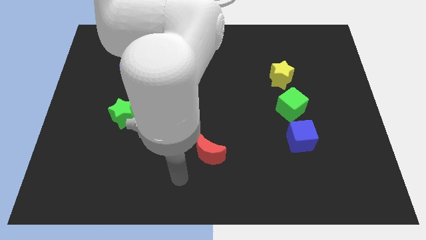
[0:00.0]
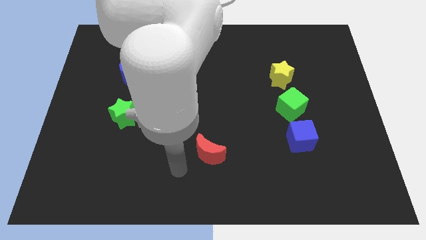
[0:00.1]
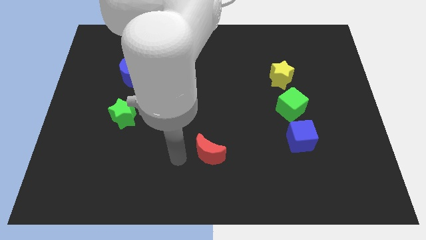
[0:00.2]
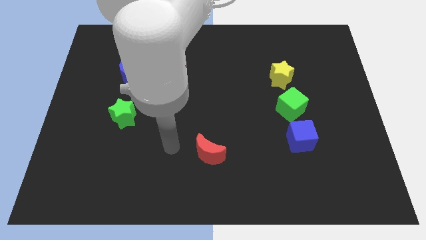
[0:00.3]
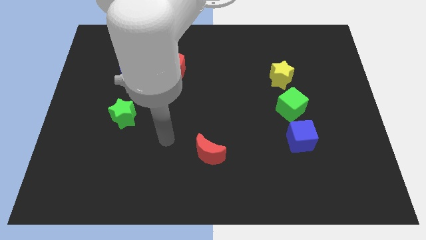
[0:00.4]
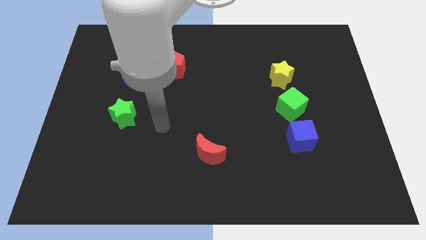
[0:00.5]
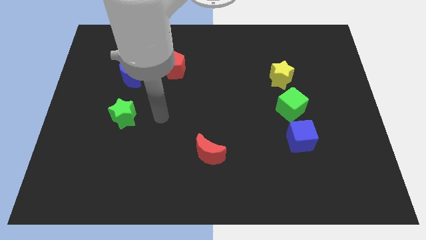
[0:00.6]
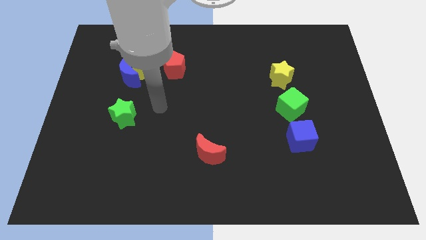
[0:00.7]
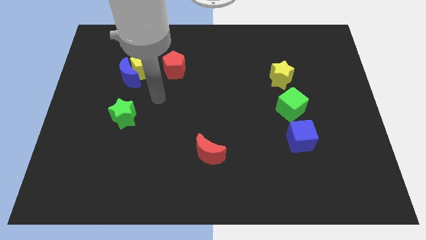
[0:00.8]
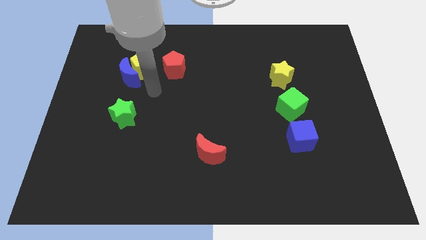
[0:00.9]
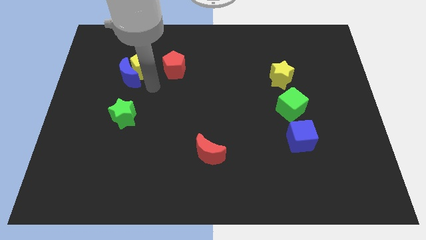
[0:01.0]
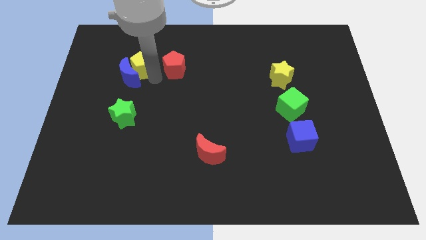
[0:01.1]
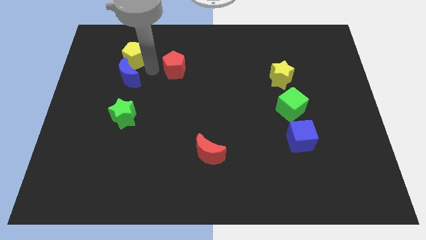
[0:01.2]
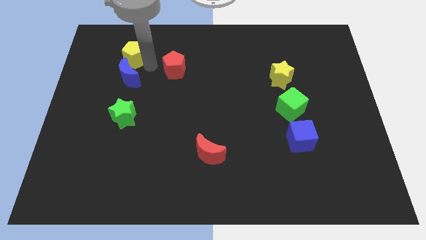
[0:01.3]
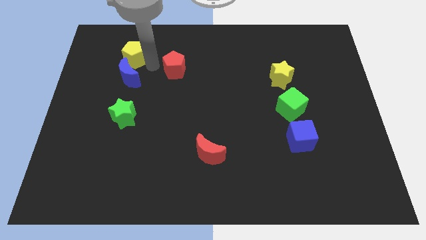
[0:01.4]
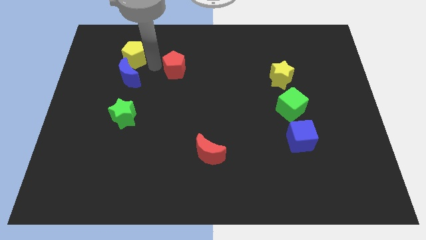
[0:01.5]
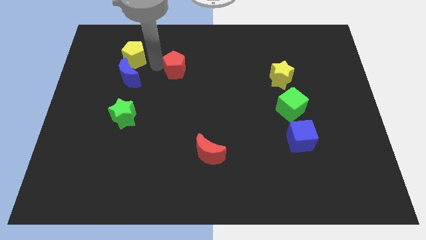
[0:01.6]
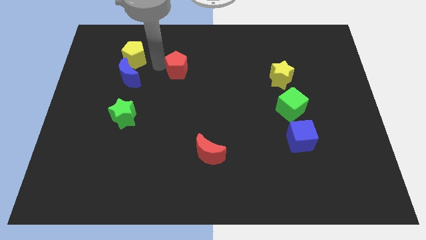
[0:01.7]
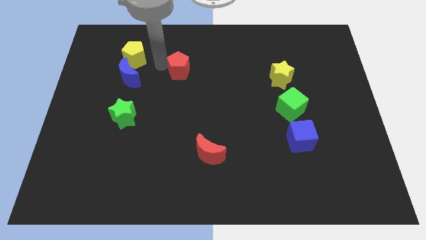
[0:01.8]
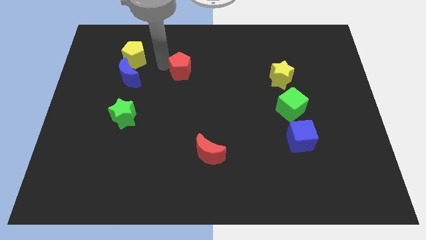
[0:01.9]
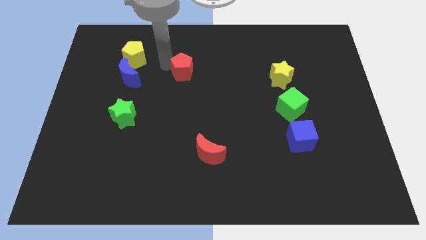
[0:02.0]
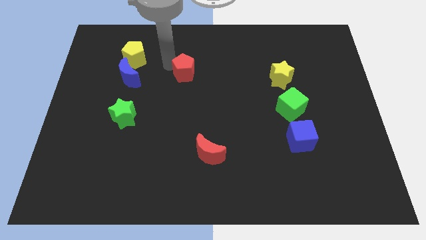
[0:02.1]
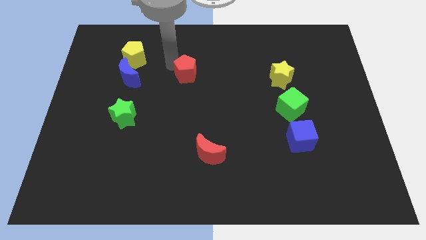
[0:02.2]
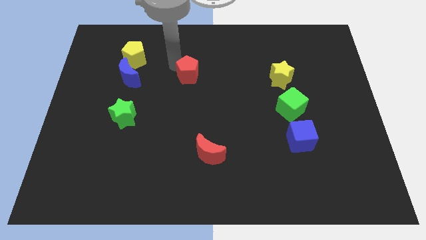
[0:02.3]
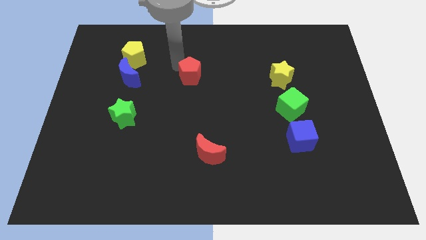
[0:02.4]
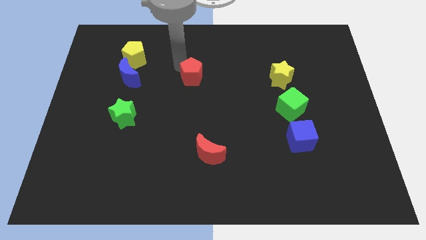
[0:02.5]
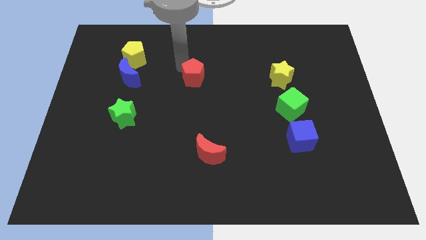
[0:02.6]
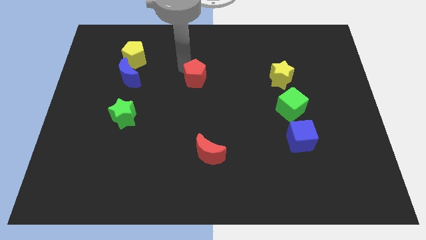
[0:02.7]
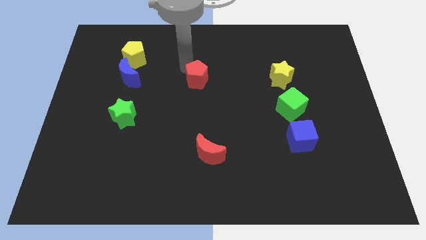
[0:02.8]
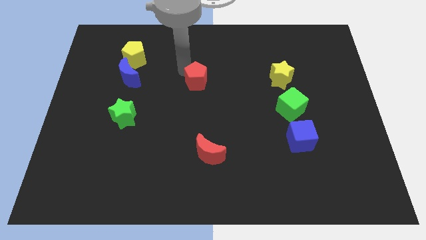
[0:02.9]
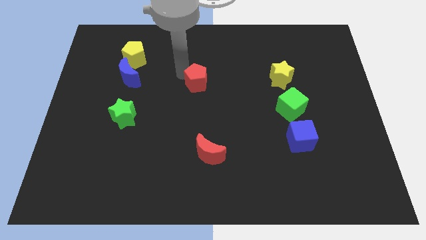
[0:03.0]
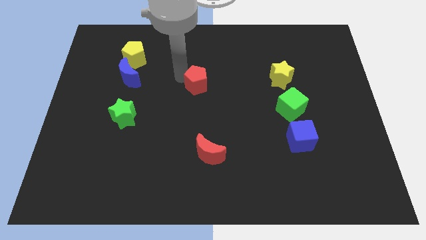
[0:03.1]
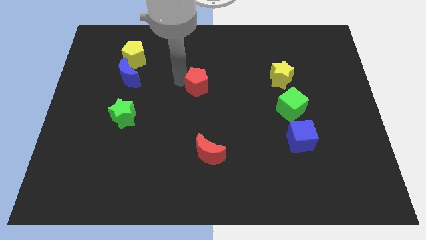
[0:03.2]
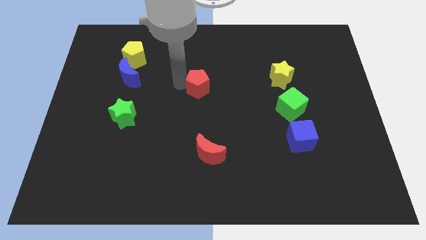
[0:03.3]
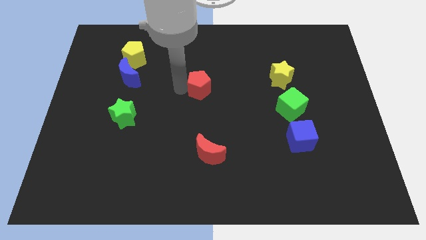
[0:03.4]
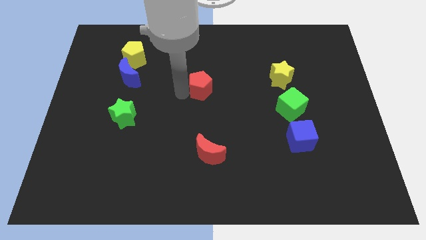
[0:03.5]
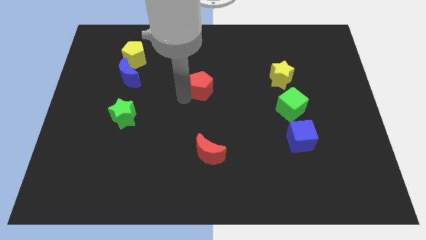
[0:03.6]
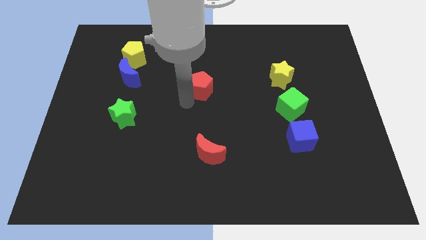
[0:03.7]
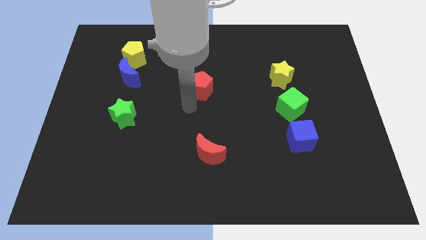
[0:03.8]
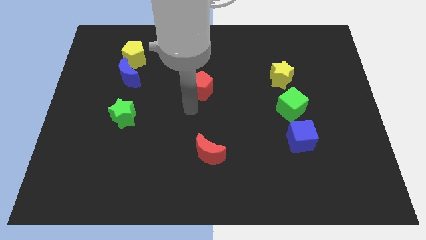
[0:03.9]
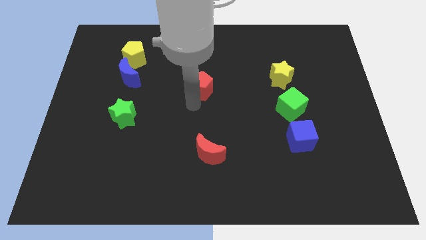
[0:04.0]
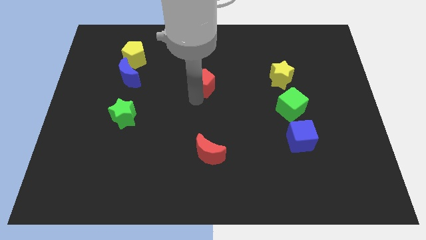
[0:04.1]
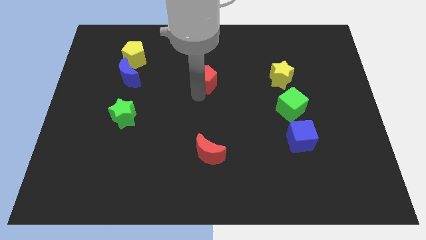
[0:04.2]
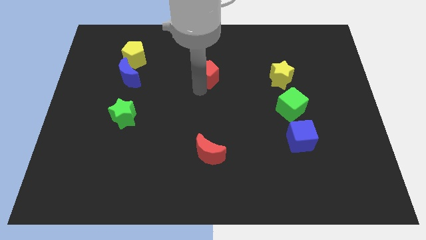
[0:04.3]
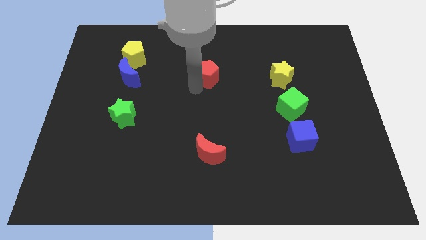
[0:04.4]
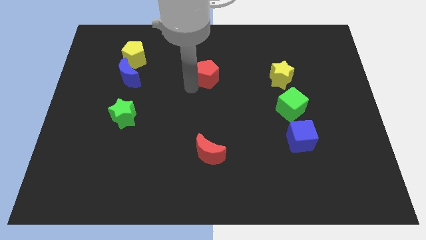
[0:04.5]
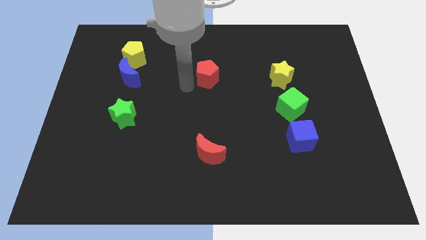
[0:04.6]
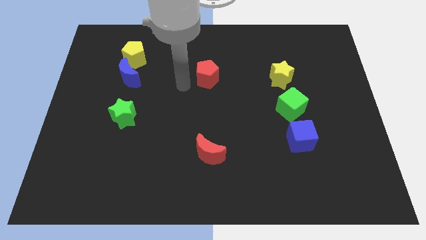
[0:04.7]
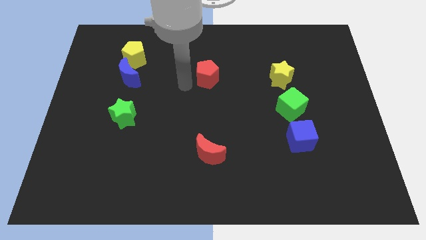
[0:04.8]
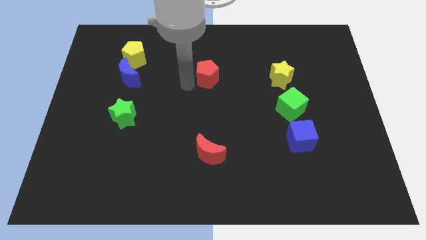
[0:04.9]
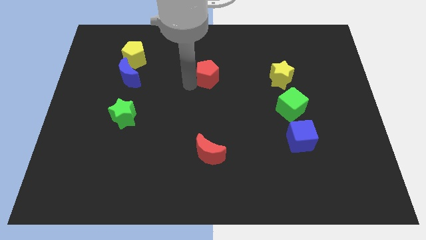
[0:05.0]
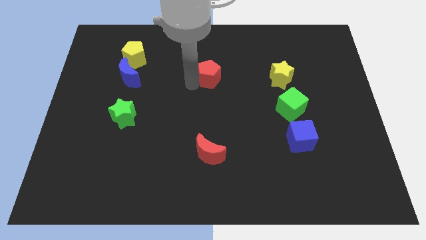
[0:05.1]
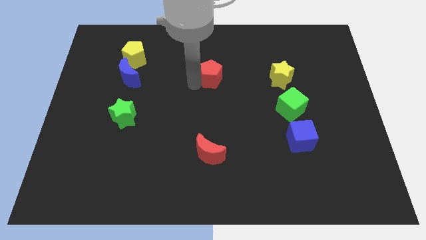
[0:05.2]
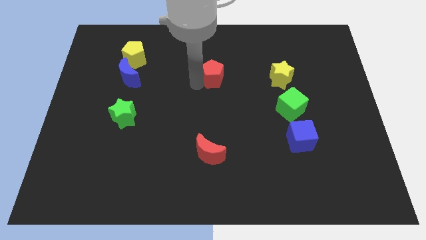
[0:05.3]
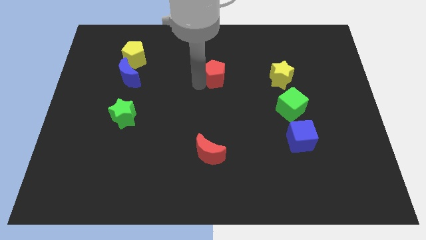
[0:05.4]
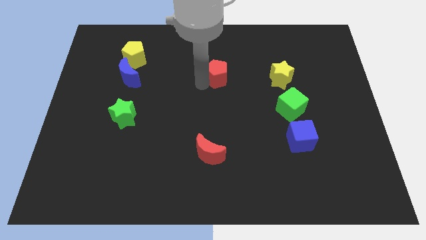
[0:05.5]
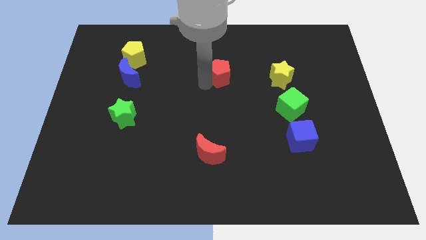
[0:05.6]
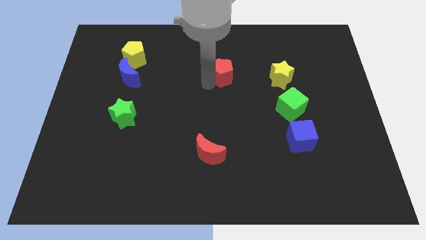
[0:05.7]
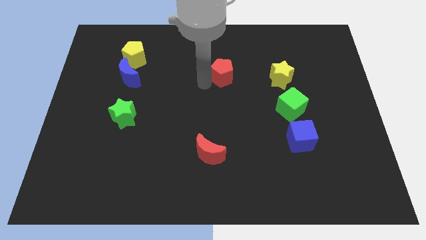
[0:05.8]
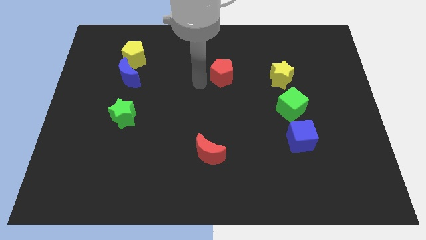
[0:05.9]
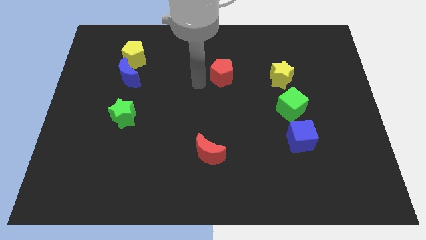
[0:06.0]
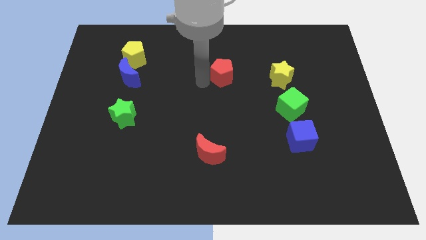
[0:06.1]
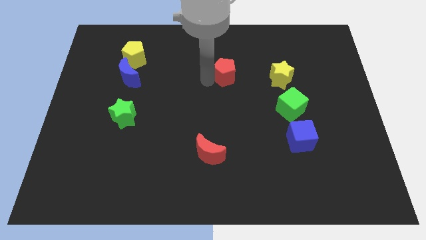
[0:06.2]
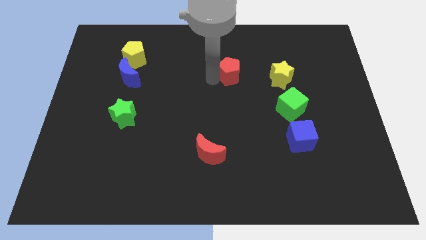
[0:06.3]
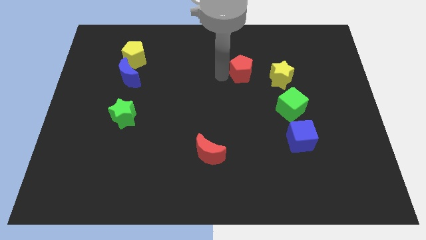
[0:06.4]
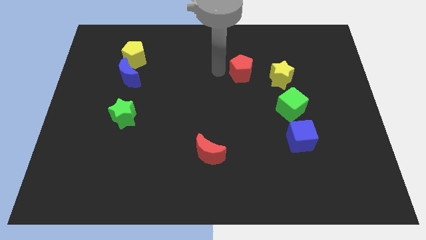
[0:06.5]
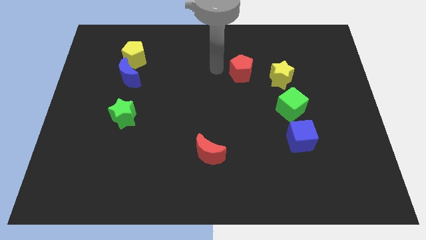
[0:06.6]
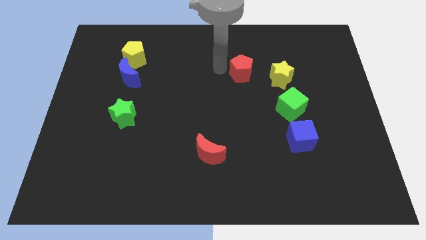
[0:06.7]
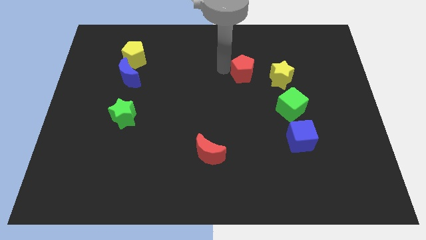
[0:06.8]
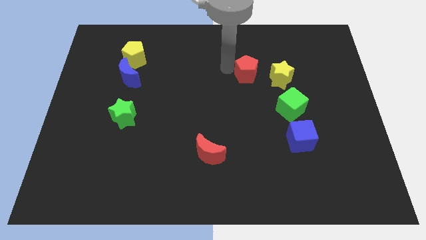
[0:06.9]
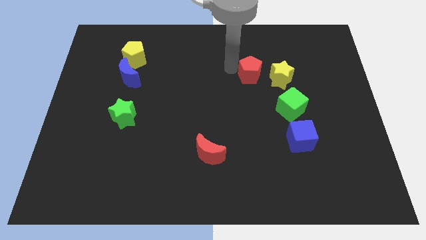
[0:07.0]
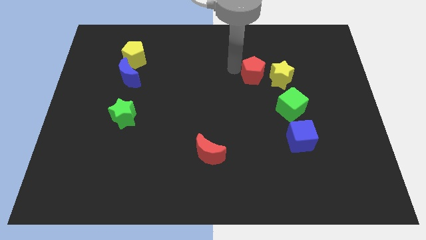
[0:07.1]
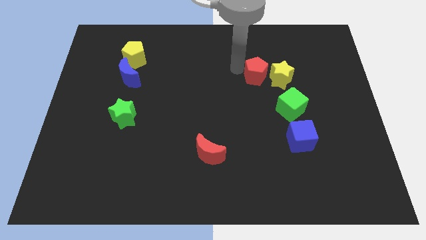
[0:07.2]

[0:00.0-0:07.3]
move the red pentagon next to the yellow star
